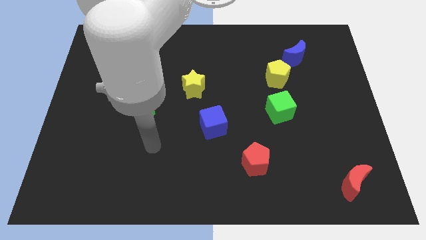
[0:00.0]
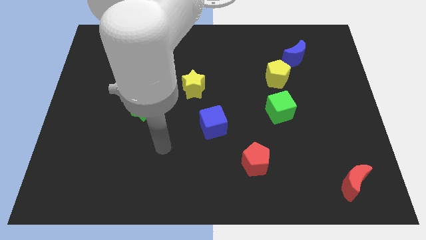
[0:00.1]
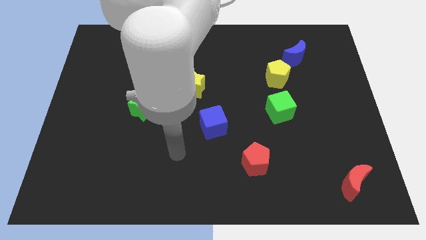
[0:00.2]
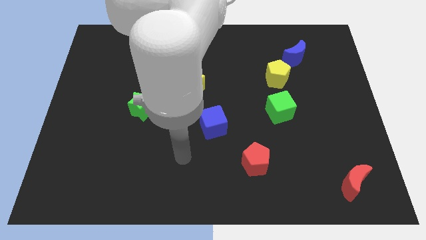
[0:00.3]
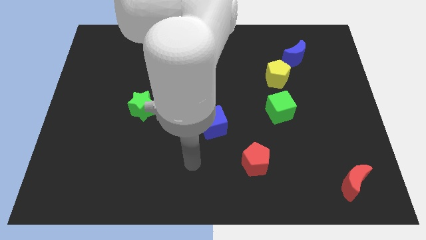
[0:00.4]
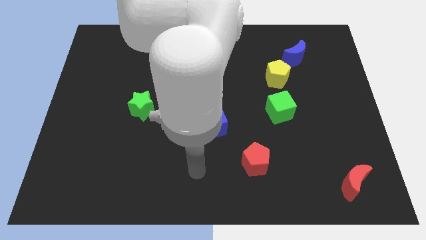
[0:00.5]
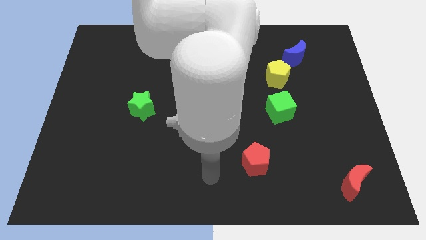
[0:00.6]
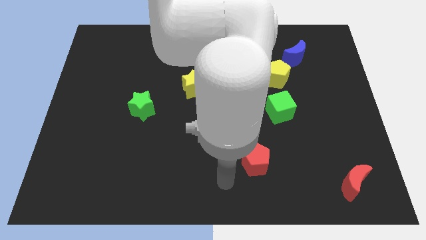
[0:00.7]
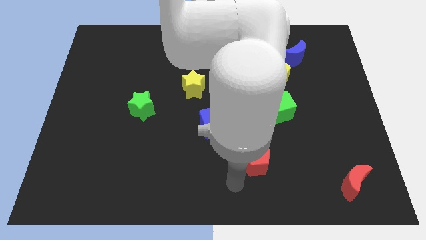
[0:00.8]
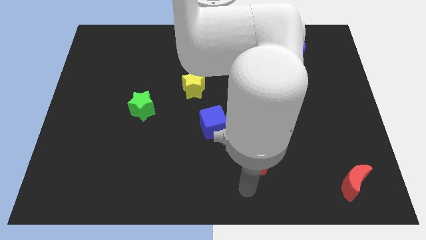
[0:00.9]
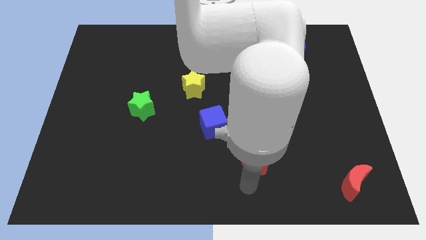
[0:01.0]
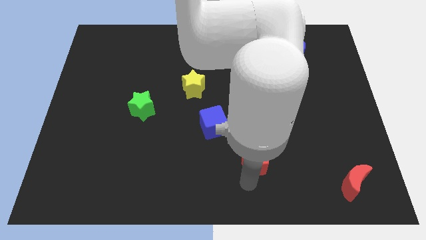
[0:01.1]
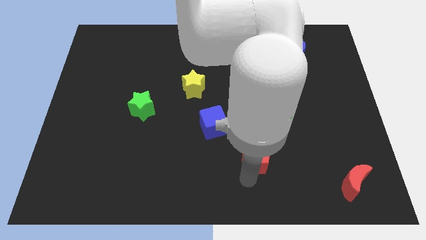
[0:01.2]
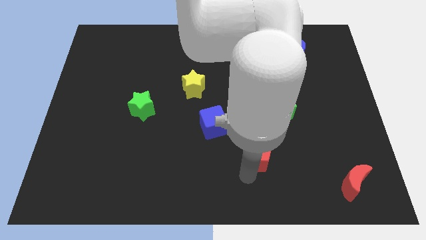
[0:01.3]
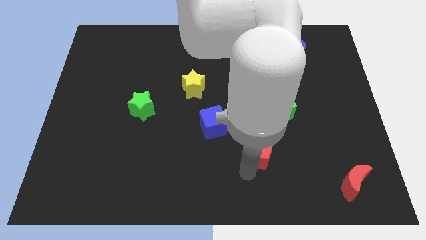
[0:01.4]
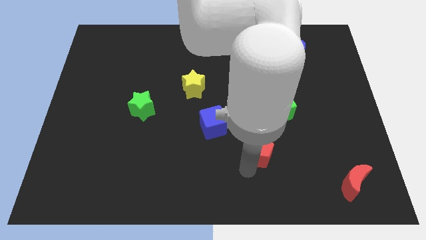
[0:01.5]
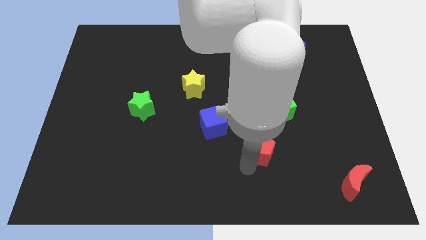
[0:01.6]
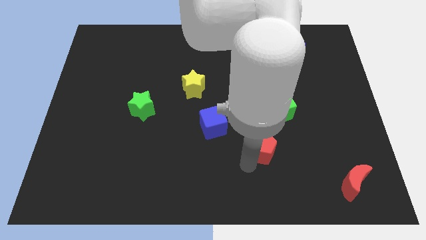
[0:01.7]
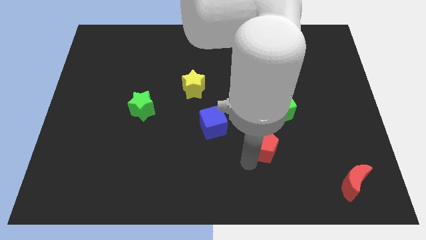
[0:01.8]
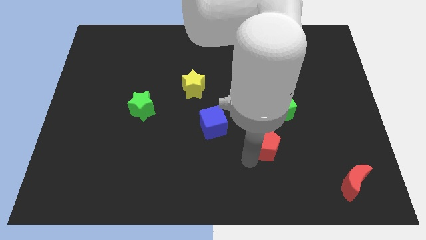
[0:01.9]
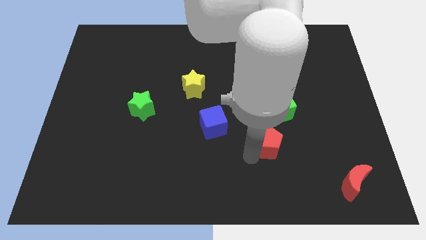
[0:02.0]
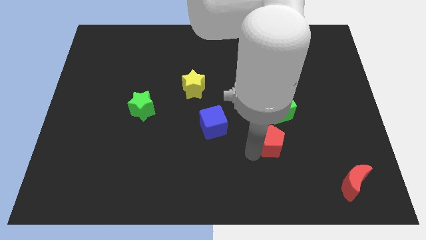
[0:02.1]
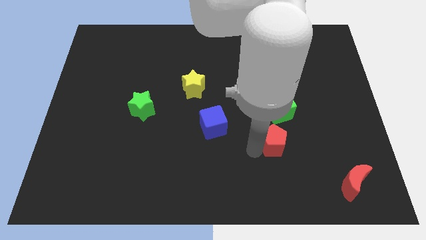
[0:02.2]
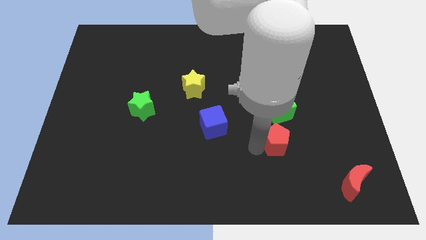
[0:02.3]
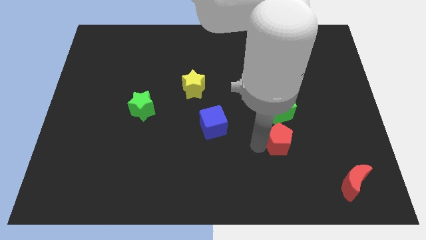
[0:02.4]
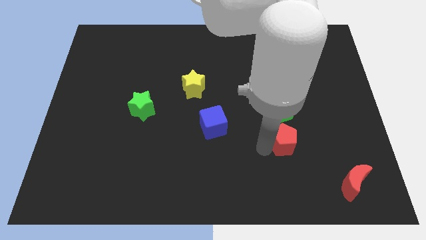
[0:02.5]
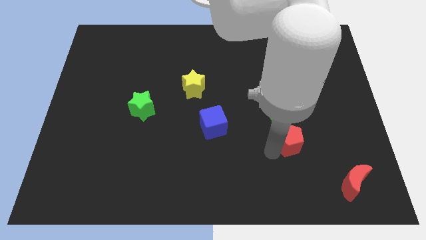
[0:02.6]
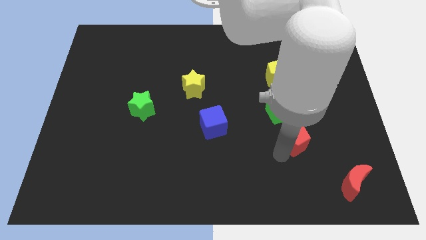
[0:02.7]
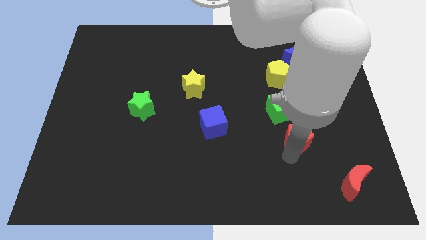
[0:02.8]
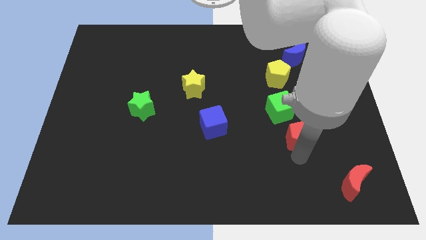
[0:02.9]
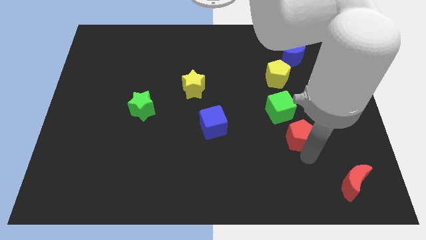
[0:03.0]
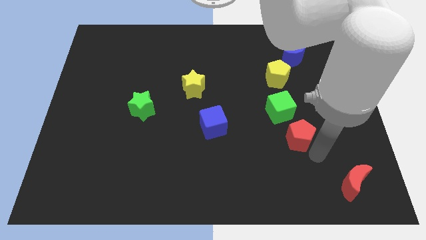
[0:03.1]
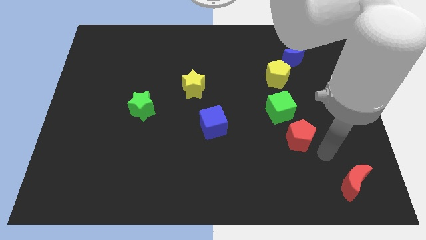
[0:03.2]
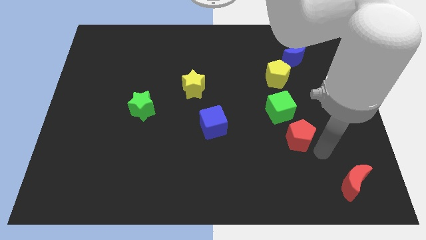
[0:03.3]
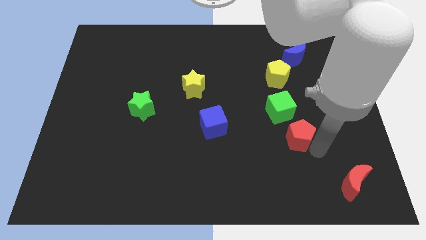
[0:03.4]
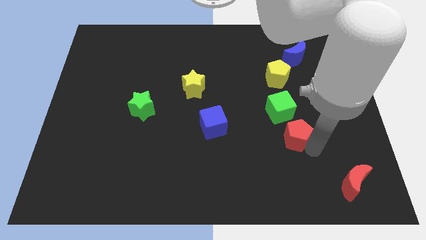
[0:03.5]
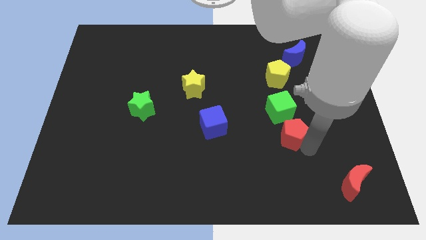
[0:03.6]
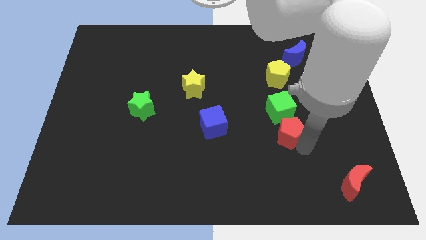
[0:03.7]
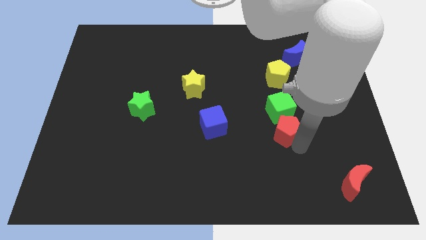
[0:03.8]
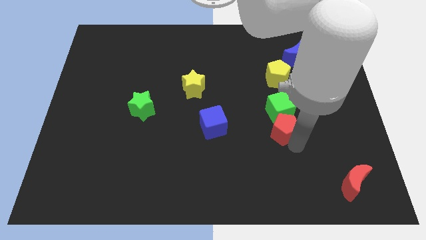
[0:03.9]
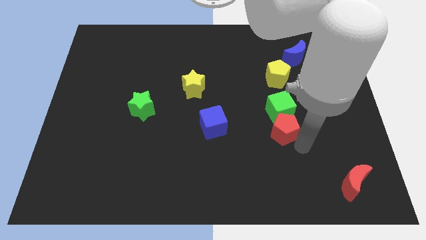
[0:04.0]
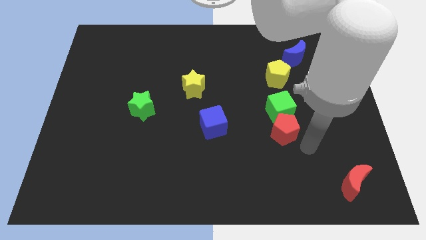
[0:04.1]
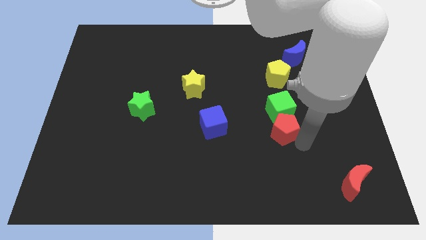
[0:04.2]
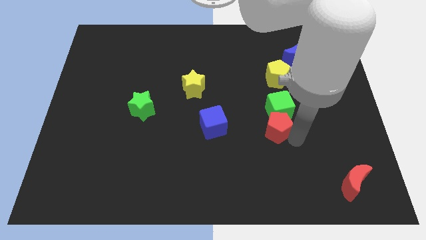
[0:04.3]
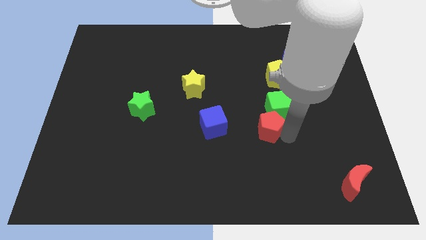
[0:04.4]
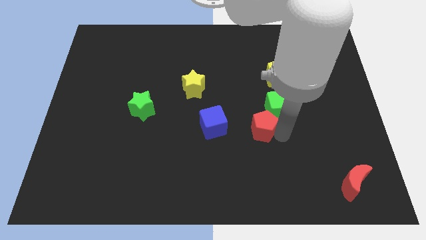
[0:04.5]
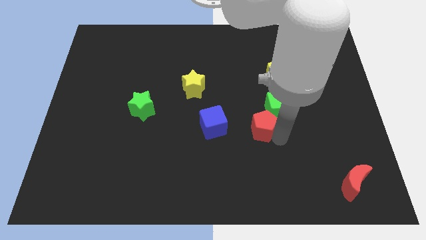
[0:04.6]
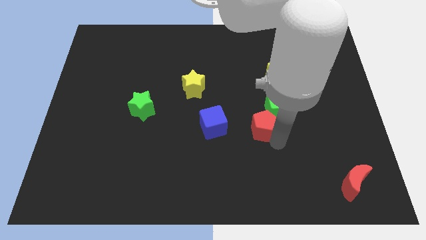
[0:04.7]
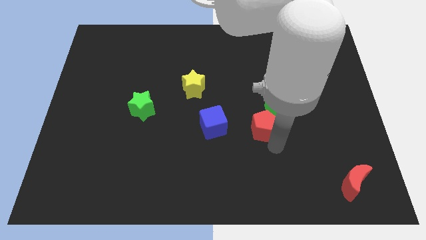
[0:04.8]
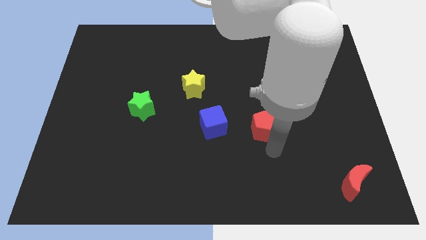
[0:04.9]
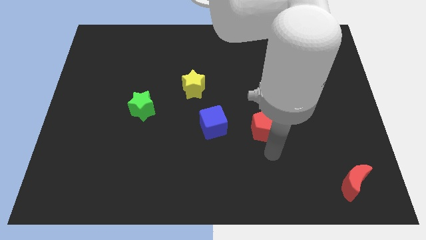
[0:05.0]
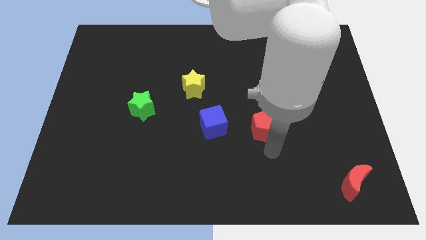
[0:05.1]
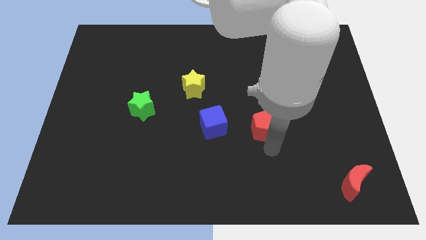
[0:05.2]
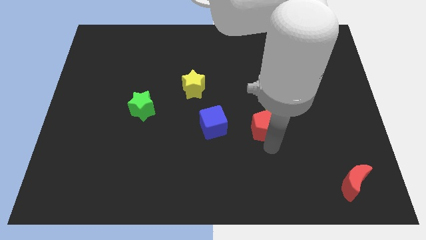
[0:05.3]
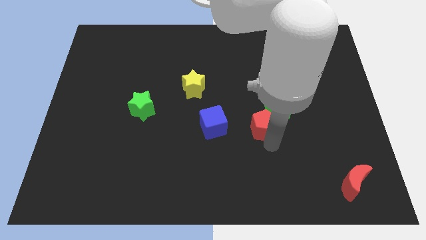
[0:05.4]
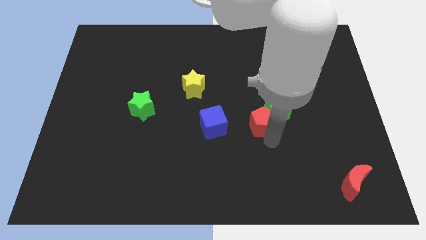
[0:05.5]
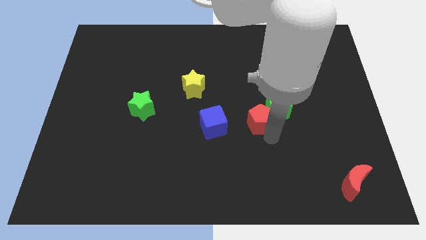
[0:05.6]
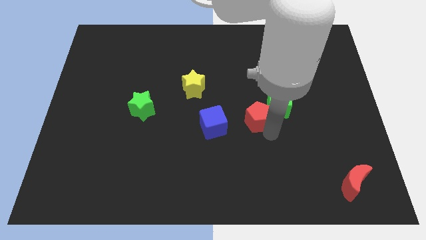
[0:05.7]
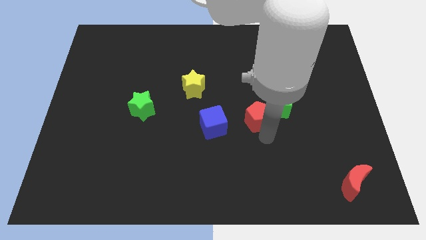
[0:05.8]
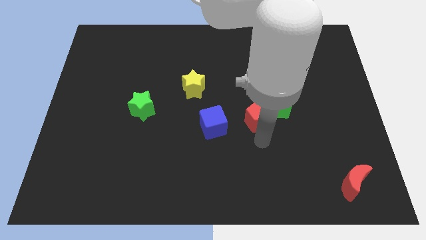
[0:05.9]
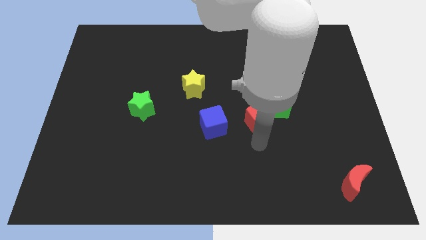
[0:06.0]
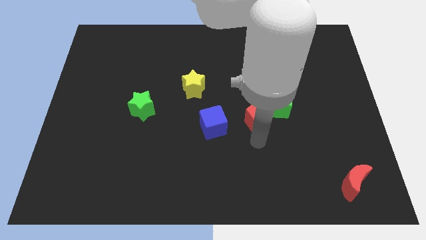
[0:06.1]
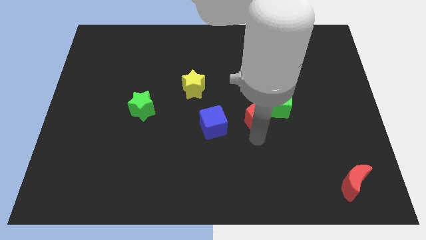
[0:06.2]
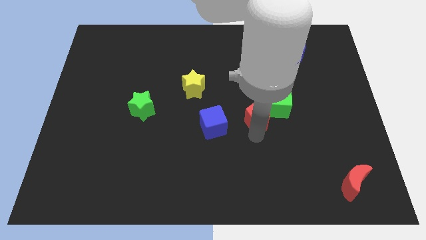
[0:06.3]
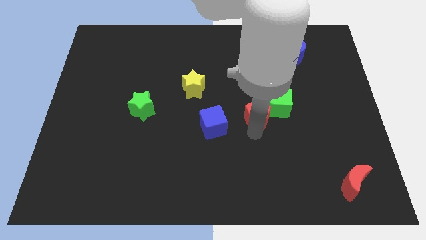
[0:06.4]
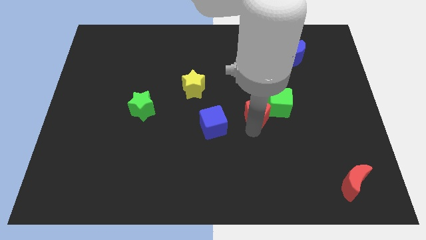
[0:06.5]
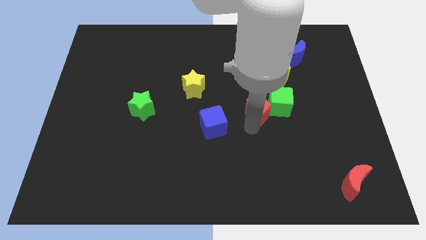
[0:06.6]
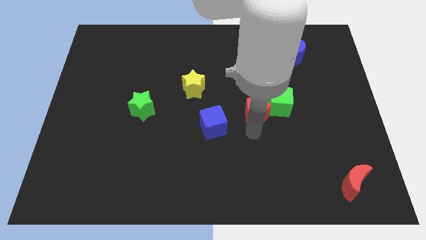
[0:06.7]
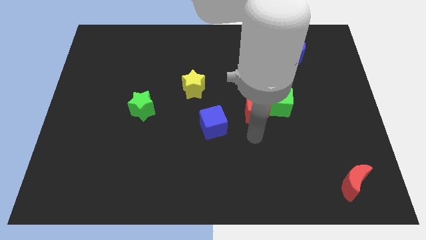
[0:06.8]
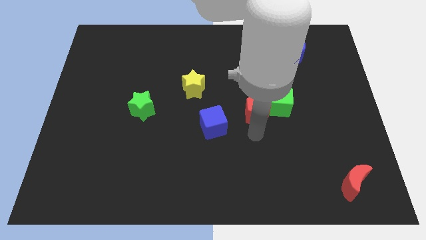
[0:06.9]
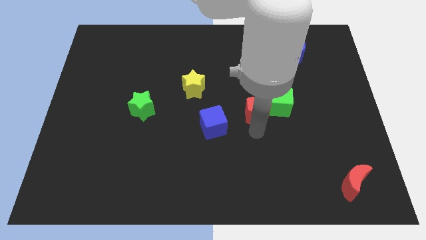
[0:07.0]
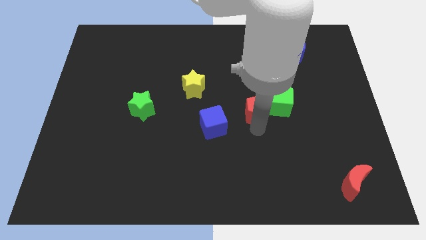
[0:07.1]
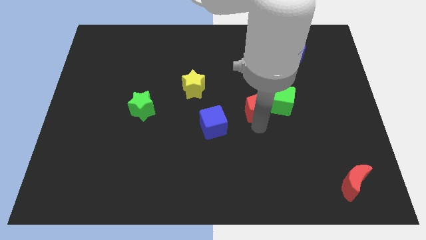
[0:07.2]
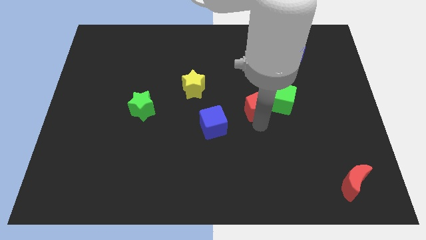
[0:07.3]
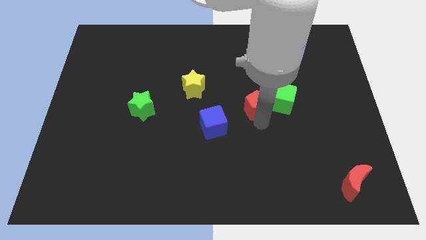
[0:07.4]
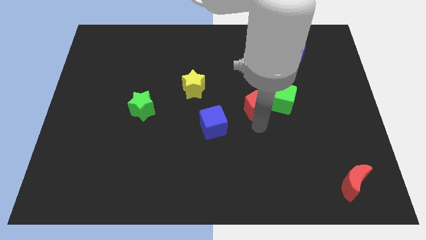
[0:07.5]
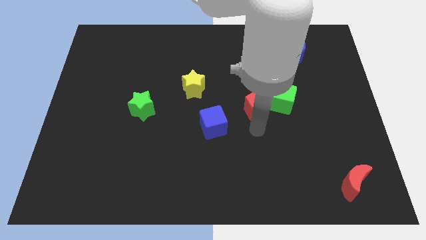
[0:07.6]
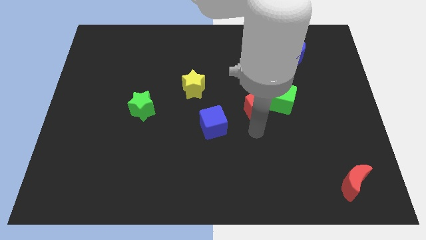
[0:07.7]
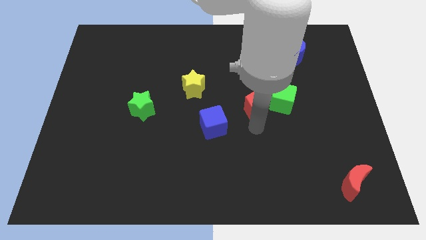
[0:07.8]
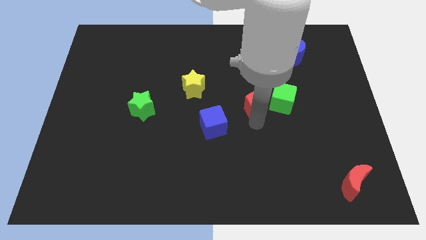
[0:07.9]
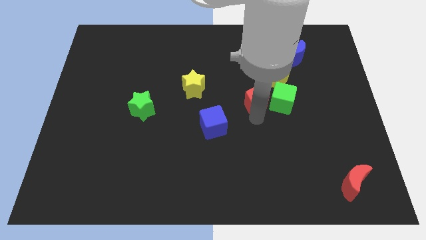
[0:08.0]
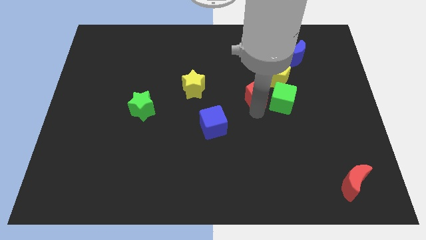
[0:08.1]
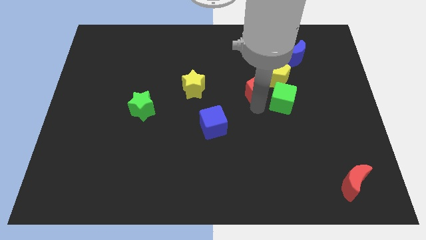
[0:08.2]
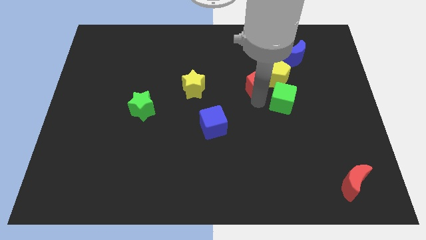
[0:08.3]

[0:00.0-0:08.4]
move the red pentagon up
